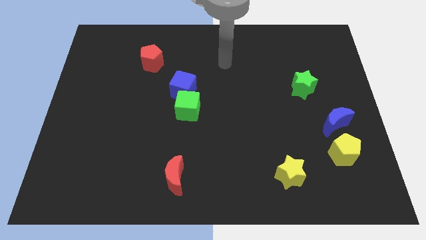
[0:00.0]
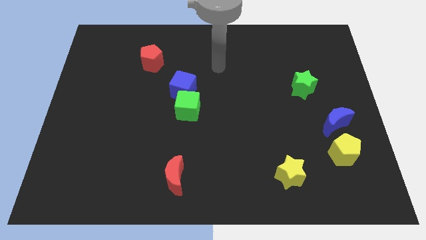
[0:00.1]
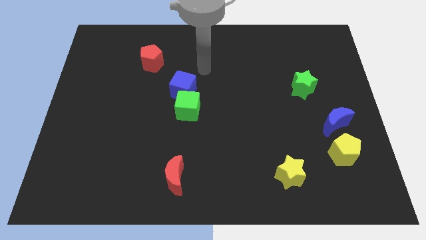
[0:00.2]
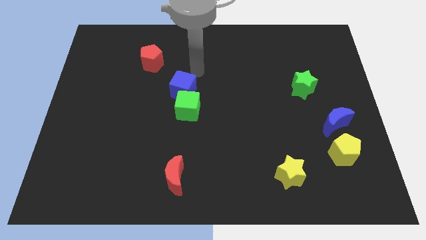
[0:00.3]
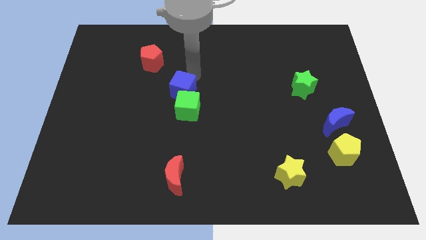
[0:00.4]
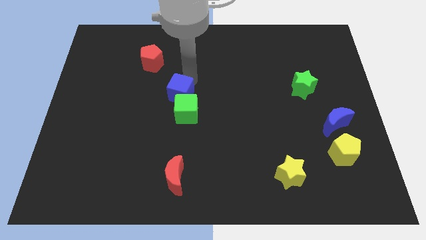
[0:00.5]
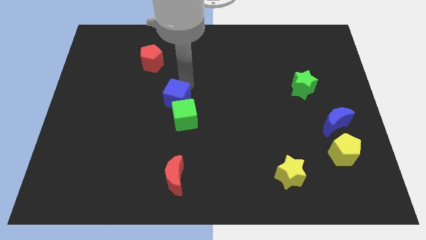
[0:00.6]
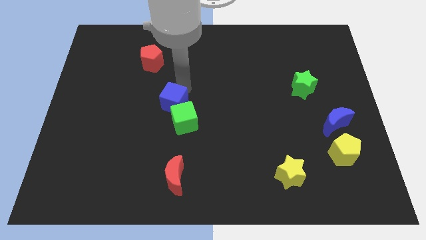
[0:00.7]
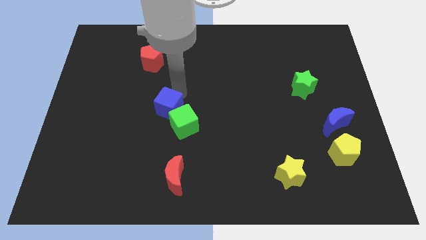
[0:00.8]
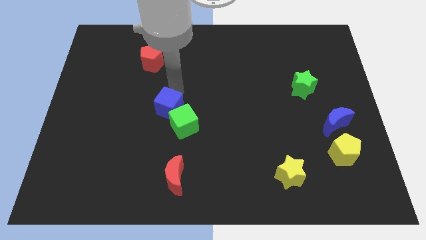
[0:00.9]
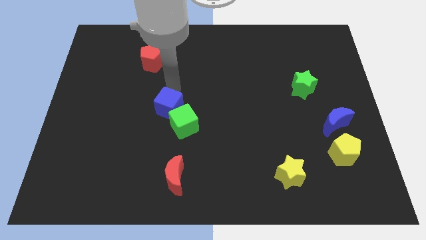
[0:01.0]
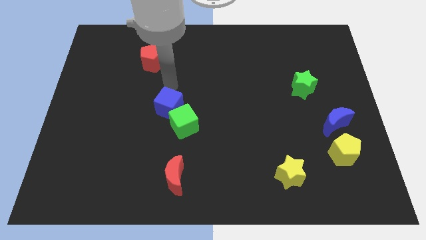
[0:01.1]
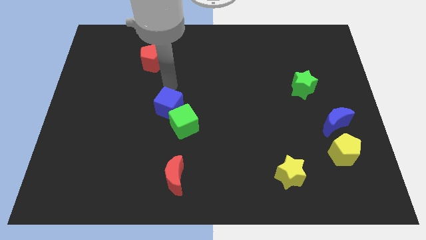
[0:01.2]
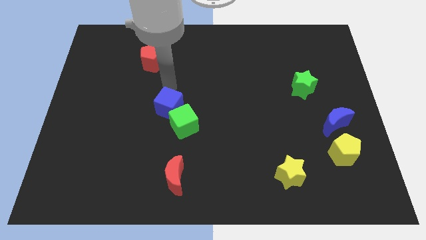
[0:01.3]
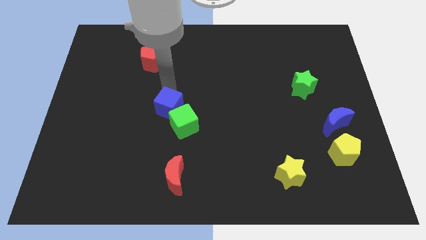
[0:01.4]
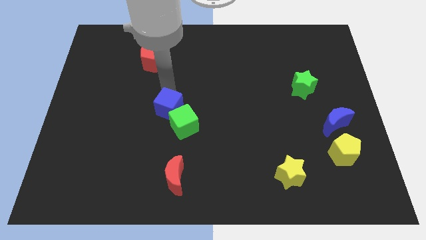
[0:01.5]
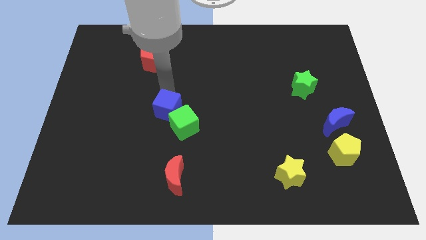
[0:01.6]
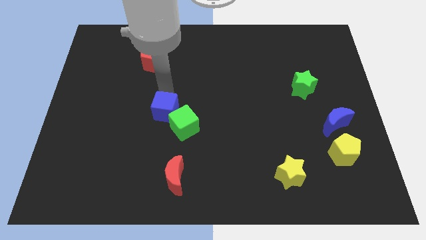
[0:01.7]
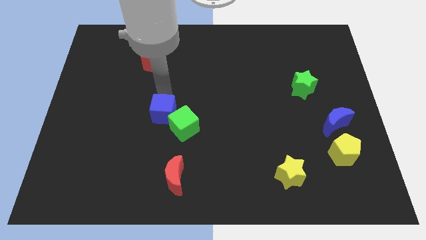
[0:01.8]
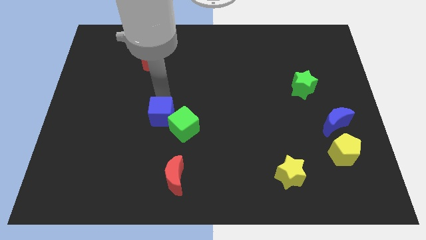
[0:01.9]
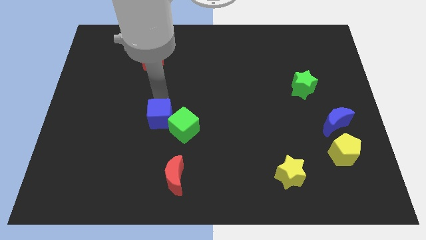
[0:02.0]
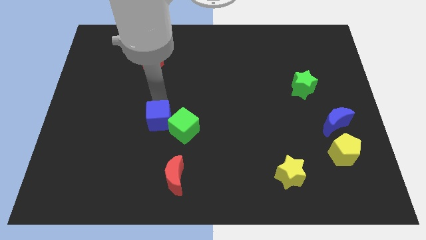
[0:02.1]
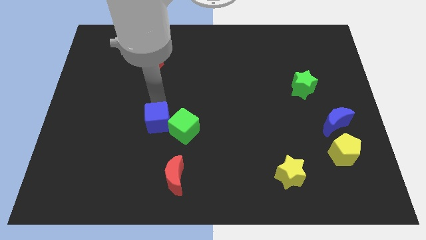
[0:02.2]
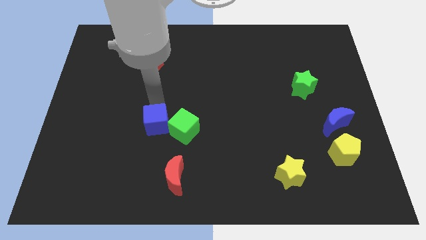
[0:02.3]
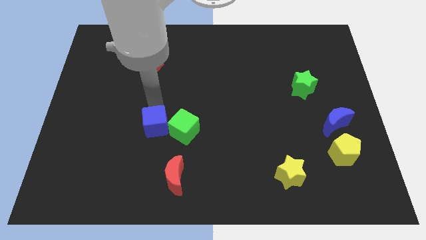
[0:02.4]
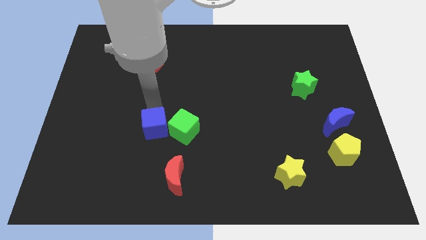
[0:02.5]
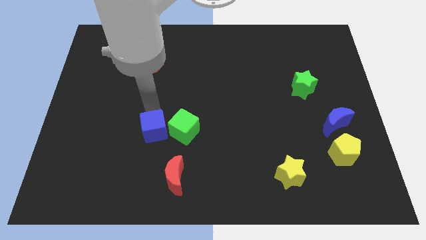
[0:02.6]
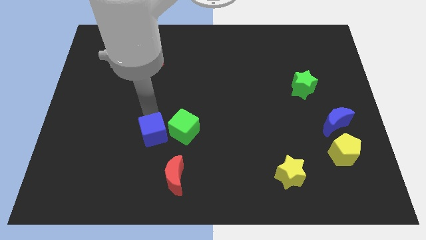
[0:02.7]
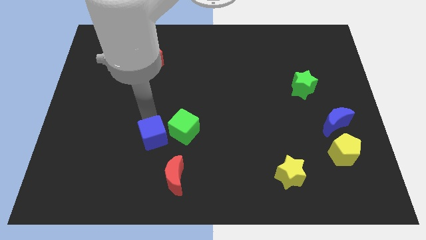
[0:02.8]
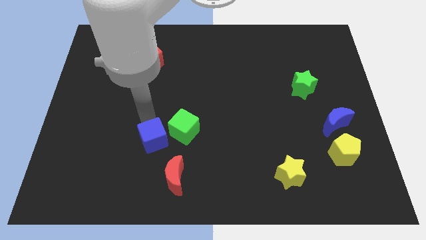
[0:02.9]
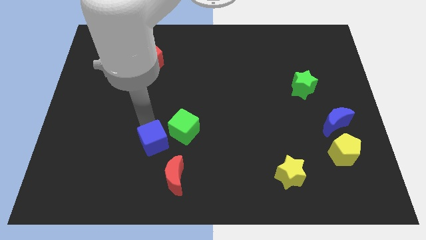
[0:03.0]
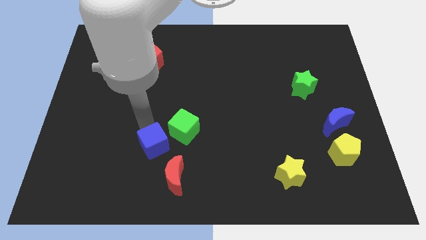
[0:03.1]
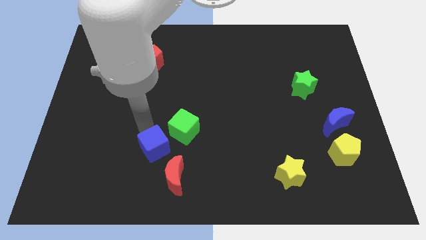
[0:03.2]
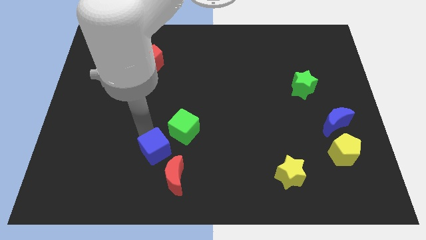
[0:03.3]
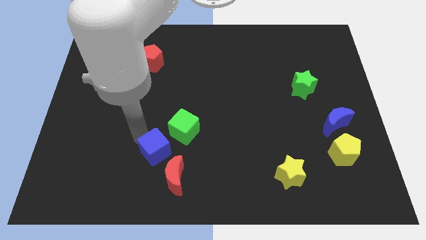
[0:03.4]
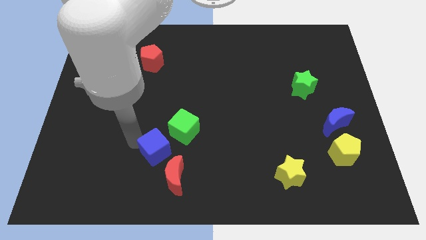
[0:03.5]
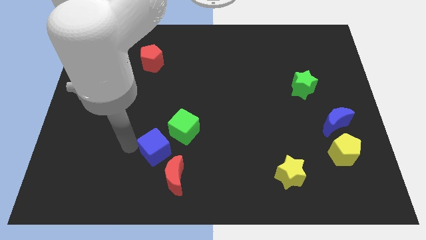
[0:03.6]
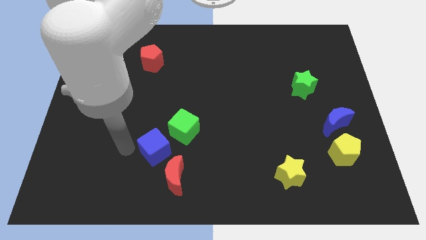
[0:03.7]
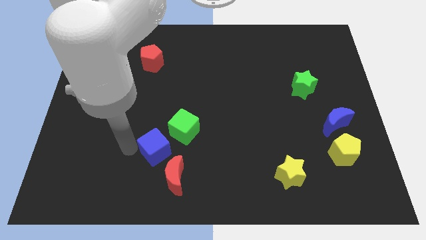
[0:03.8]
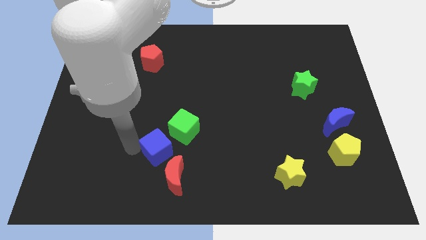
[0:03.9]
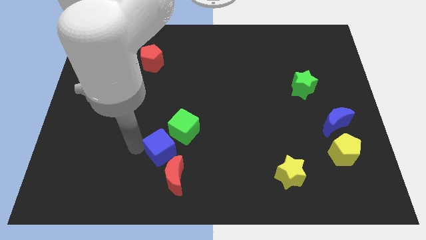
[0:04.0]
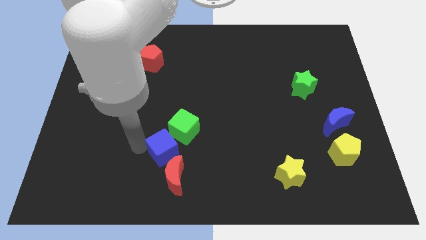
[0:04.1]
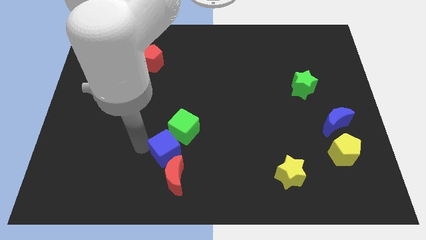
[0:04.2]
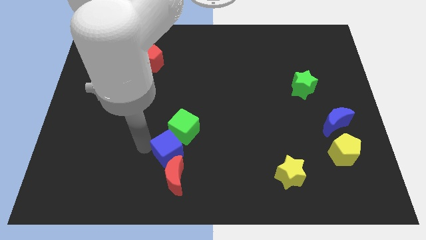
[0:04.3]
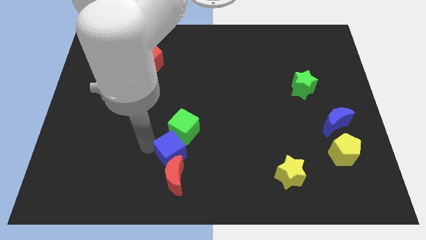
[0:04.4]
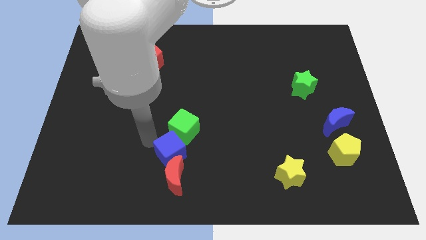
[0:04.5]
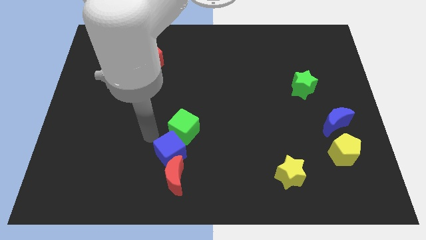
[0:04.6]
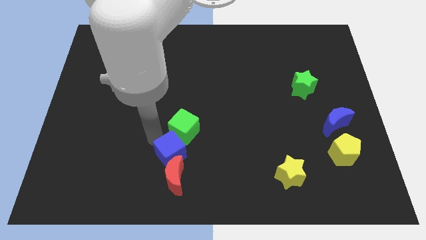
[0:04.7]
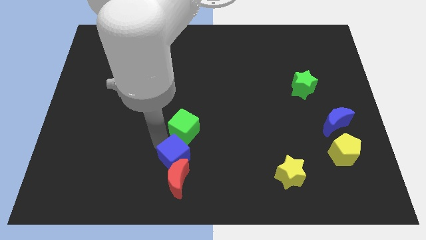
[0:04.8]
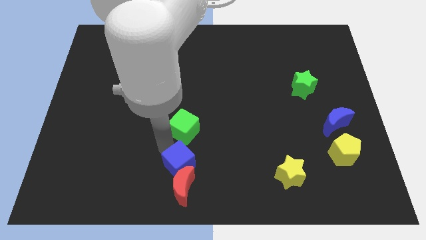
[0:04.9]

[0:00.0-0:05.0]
put the blue cube to the bottom

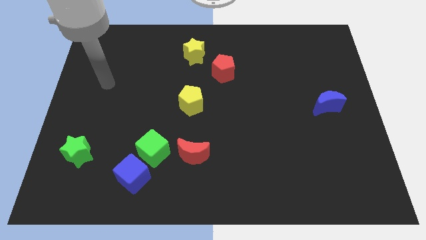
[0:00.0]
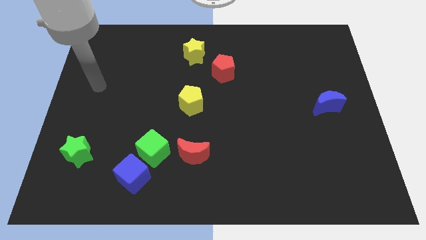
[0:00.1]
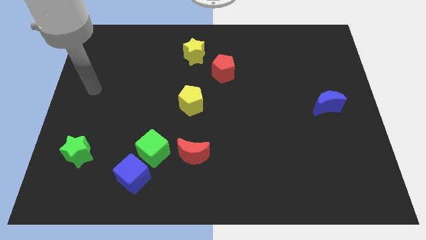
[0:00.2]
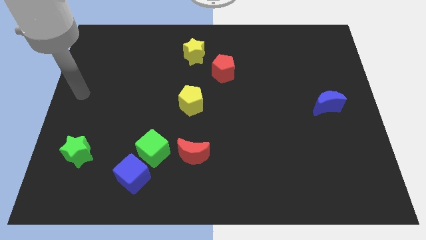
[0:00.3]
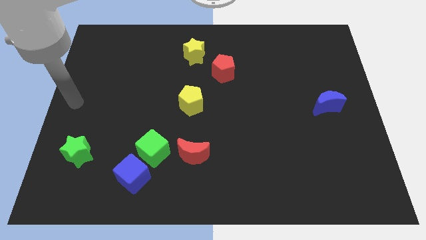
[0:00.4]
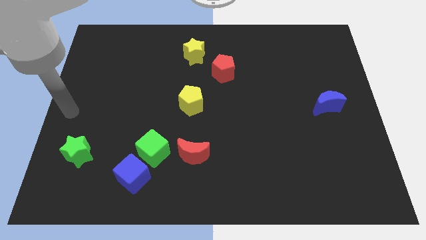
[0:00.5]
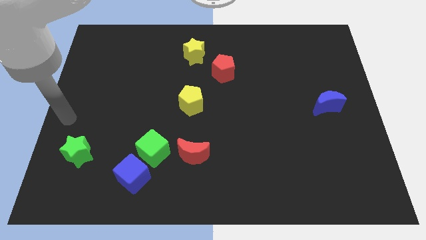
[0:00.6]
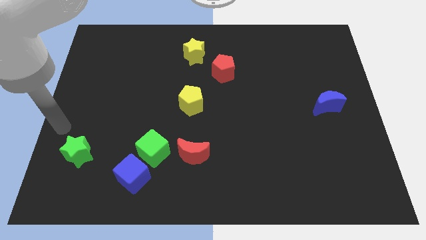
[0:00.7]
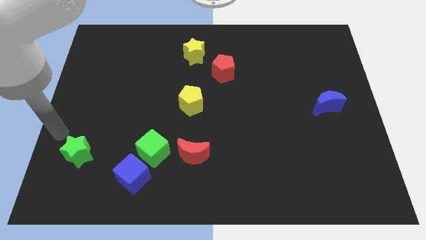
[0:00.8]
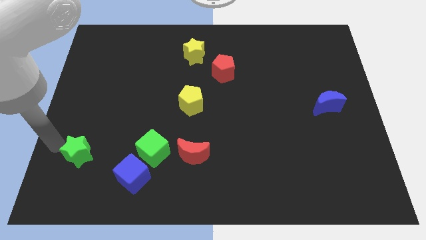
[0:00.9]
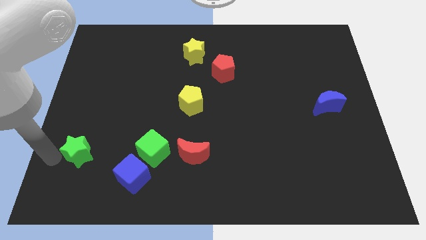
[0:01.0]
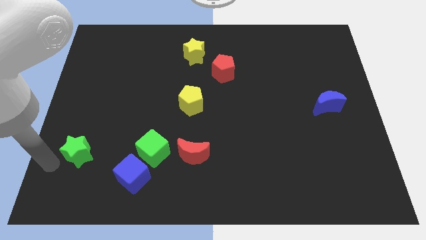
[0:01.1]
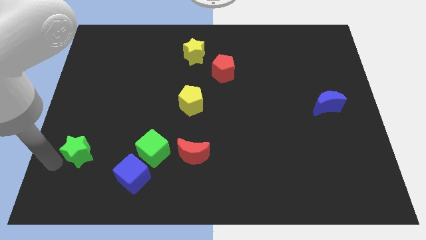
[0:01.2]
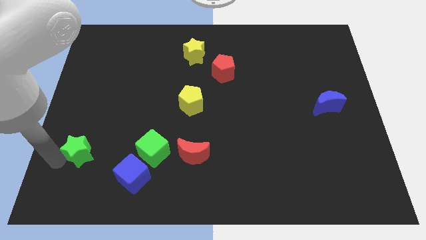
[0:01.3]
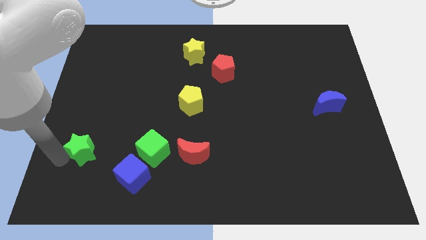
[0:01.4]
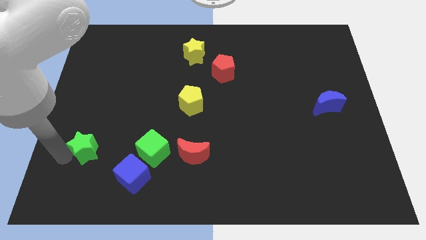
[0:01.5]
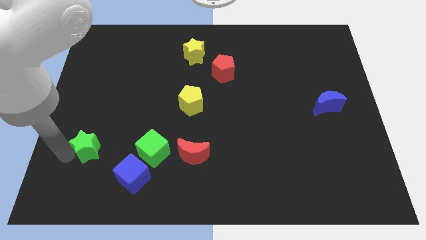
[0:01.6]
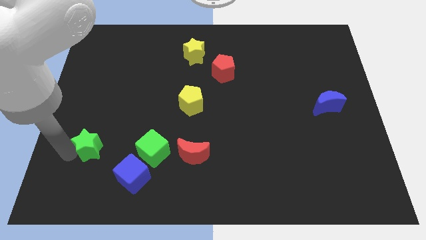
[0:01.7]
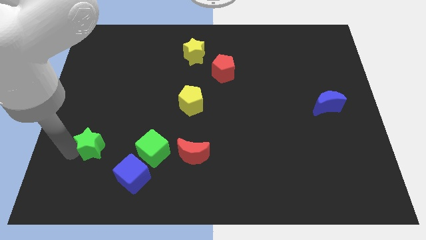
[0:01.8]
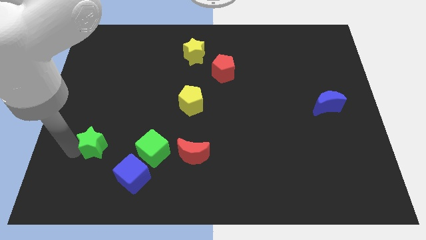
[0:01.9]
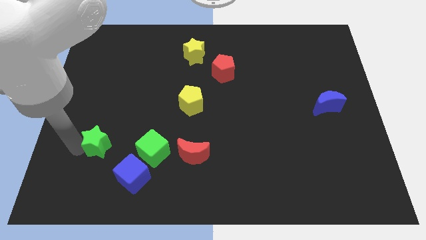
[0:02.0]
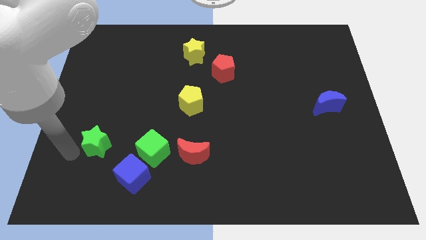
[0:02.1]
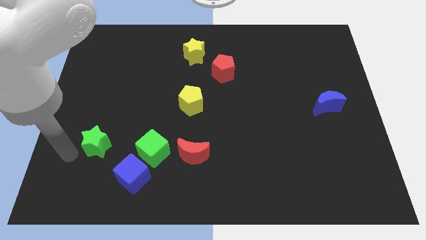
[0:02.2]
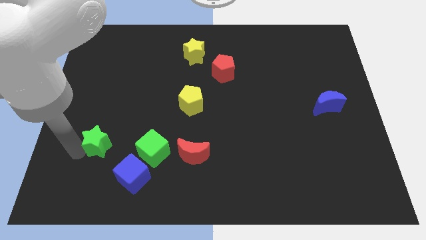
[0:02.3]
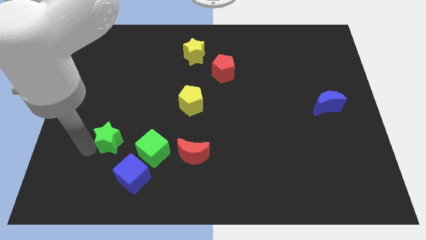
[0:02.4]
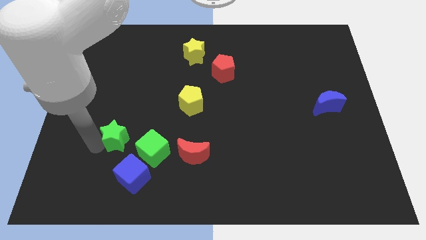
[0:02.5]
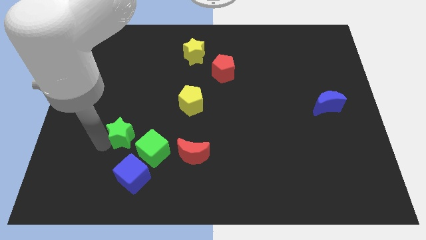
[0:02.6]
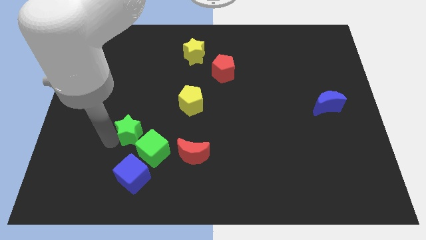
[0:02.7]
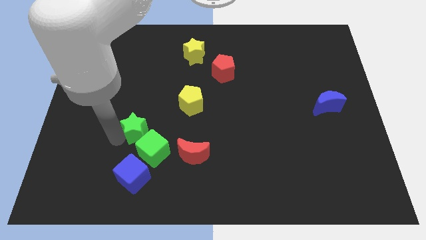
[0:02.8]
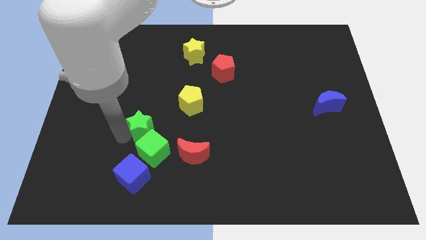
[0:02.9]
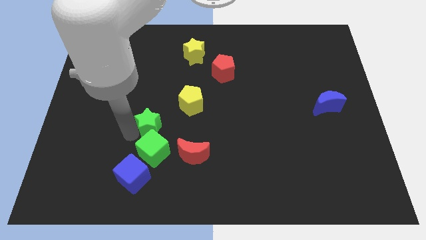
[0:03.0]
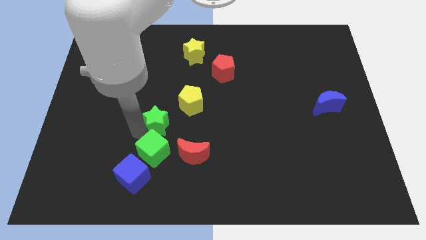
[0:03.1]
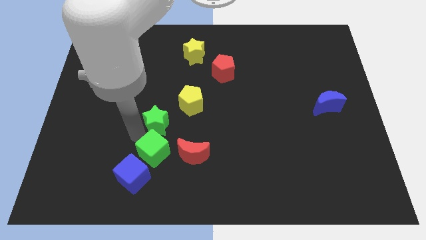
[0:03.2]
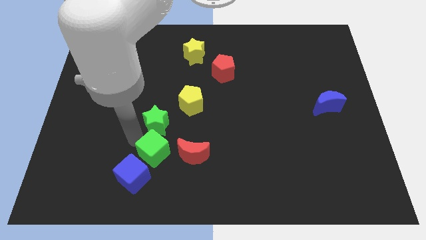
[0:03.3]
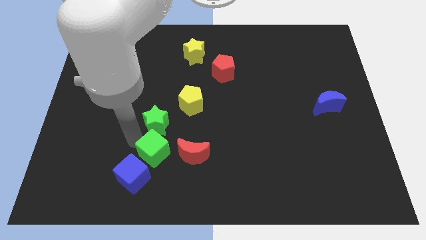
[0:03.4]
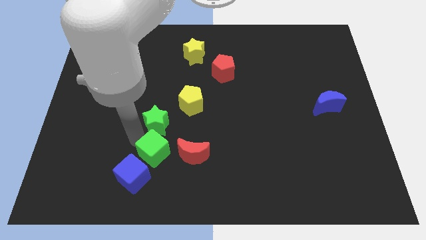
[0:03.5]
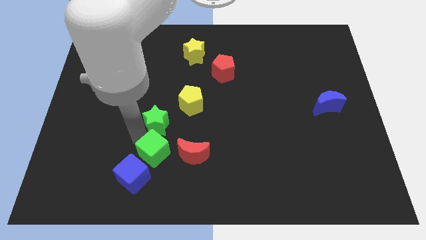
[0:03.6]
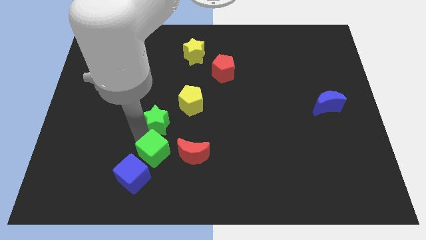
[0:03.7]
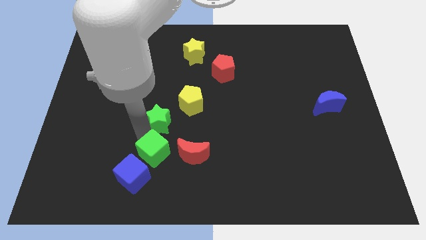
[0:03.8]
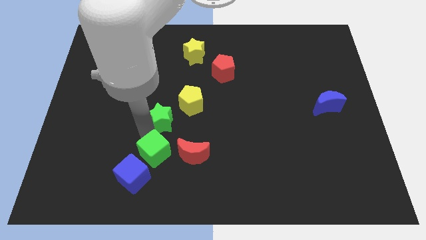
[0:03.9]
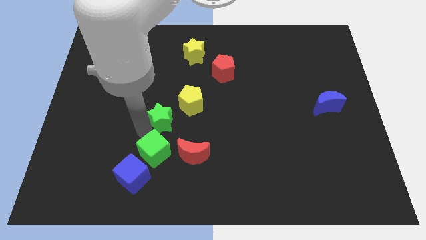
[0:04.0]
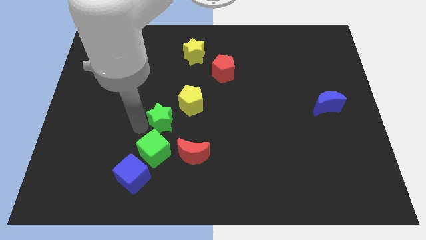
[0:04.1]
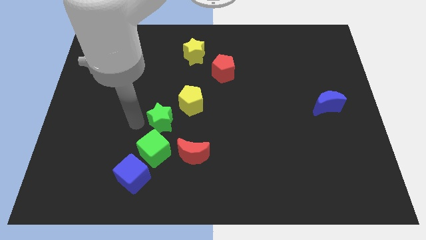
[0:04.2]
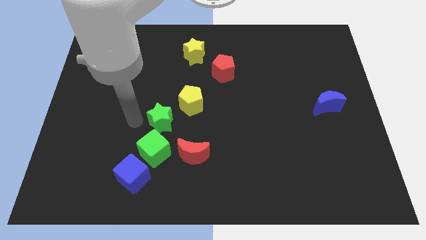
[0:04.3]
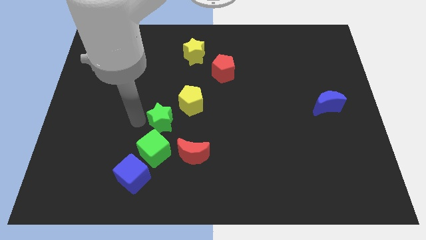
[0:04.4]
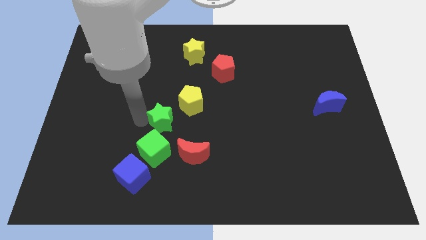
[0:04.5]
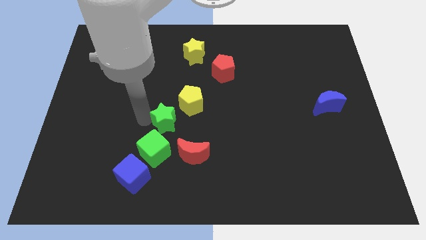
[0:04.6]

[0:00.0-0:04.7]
push the green star to the center
